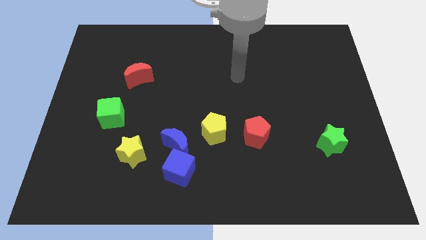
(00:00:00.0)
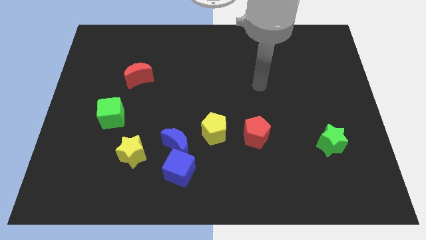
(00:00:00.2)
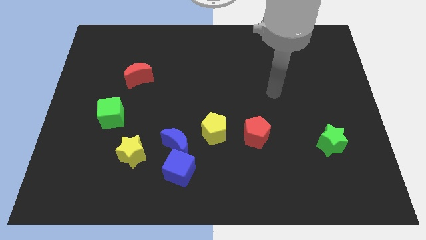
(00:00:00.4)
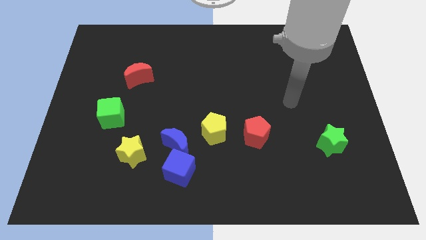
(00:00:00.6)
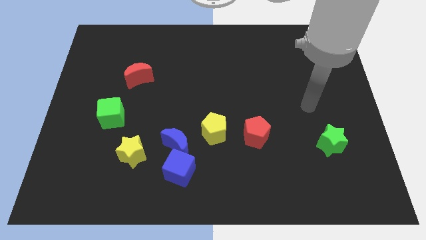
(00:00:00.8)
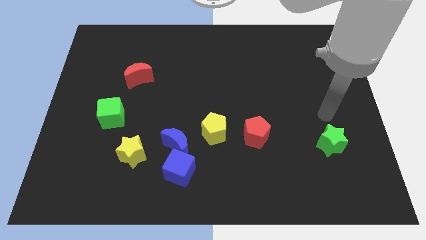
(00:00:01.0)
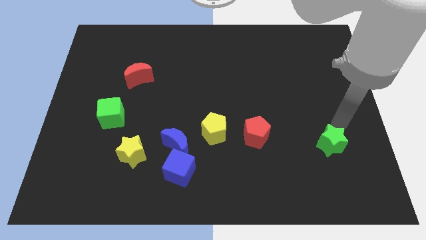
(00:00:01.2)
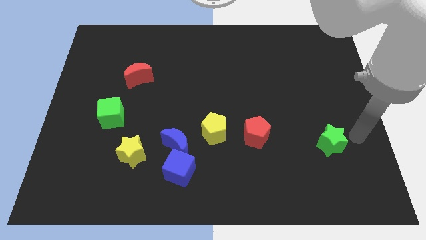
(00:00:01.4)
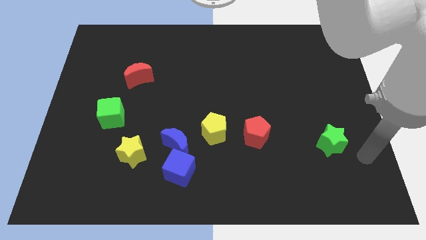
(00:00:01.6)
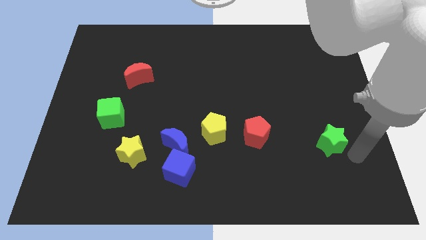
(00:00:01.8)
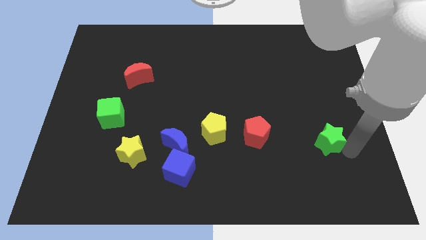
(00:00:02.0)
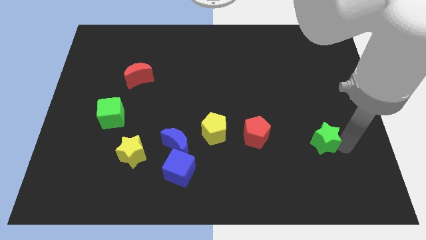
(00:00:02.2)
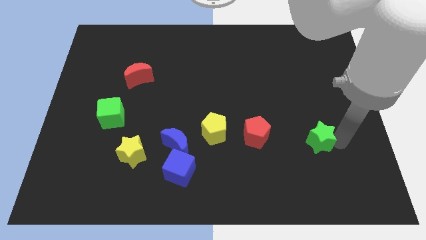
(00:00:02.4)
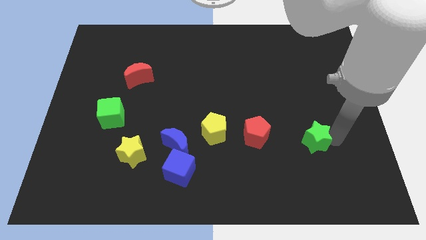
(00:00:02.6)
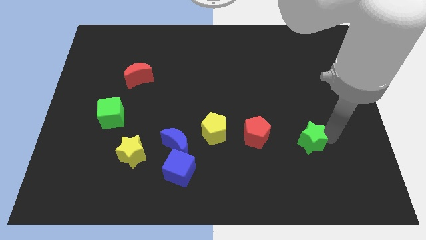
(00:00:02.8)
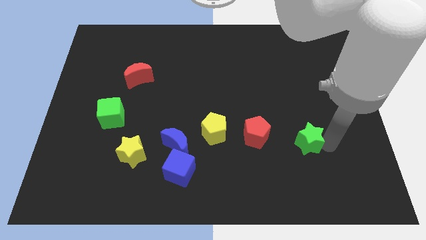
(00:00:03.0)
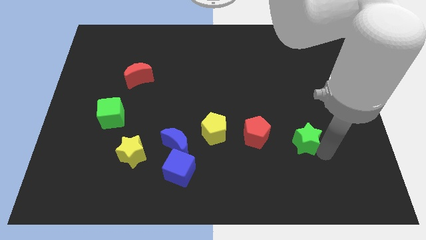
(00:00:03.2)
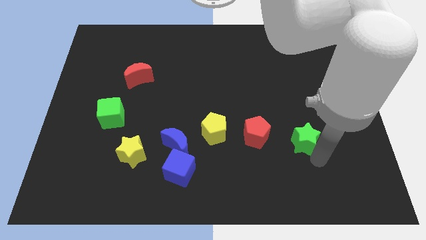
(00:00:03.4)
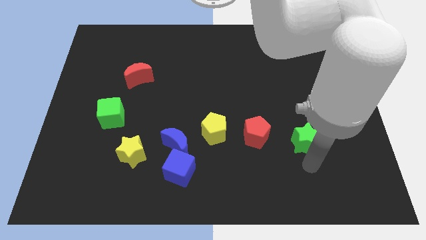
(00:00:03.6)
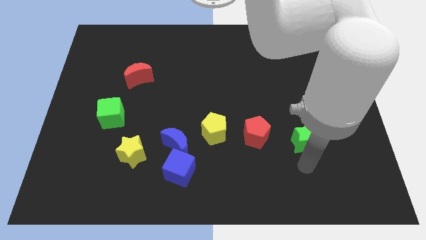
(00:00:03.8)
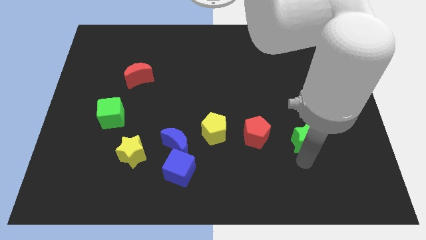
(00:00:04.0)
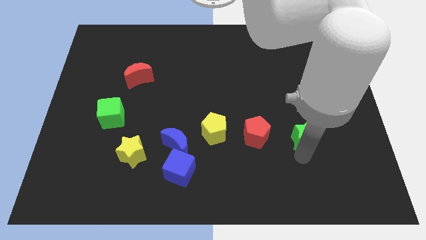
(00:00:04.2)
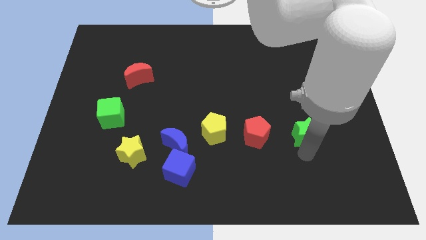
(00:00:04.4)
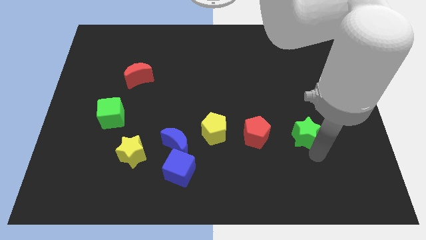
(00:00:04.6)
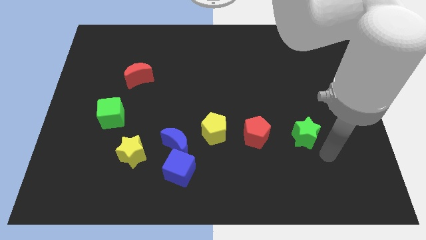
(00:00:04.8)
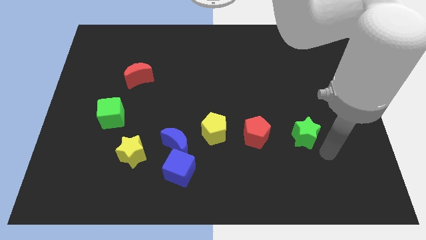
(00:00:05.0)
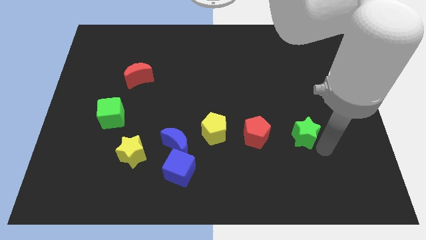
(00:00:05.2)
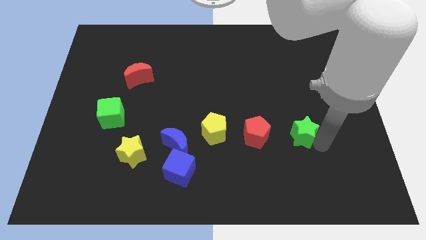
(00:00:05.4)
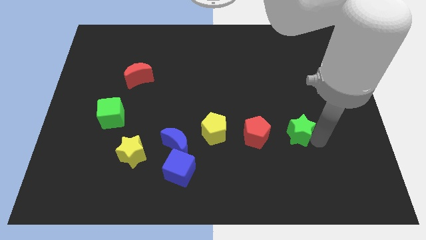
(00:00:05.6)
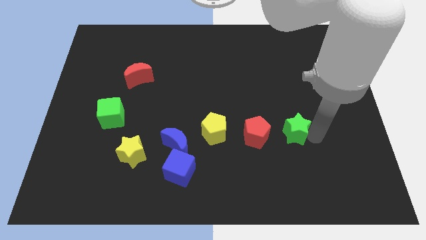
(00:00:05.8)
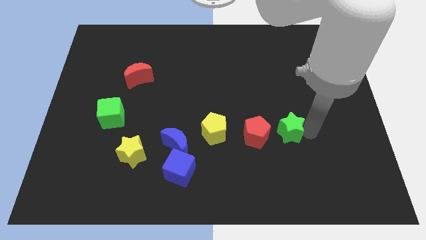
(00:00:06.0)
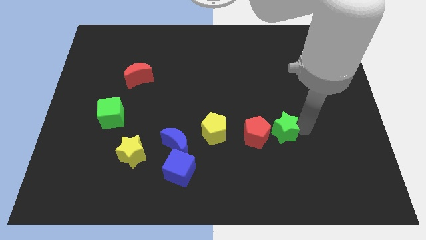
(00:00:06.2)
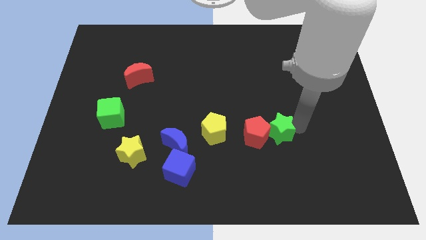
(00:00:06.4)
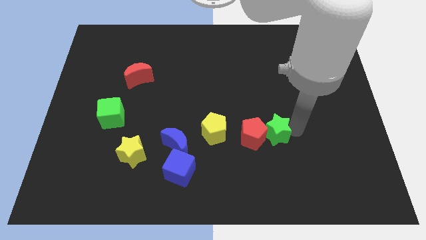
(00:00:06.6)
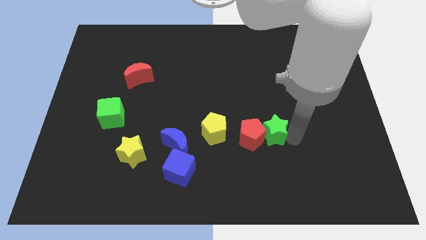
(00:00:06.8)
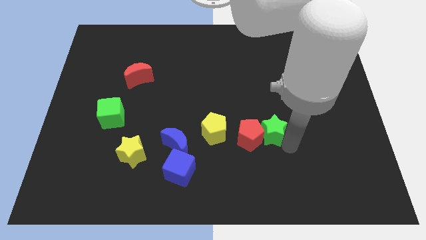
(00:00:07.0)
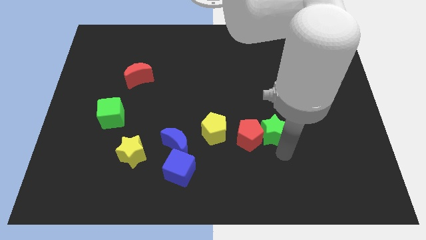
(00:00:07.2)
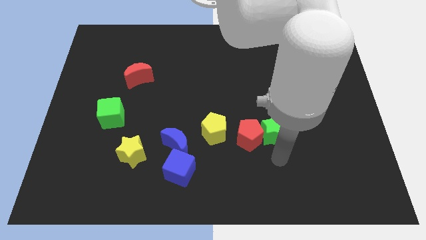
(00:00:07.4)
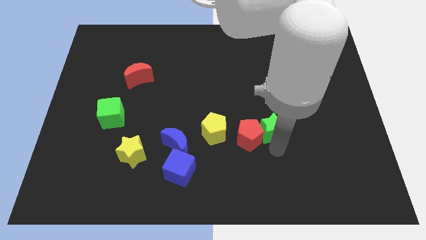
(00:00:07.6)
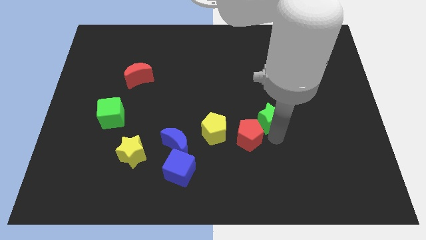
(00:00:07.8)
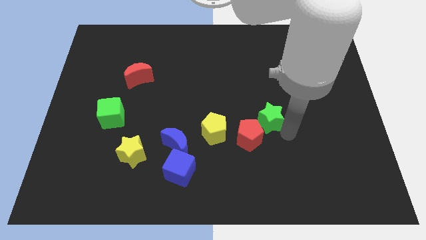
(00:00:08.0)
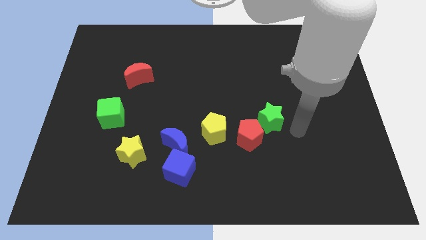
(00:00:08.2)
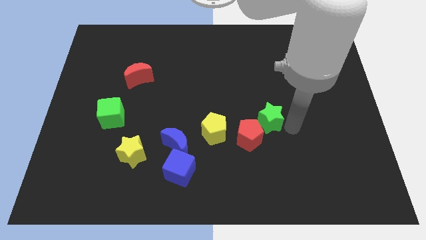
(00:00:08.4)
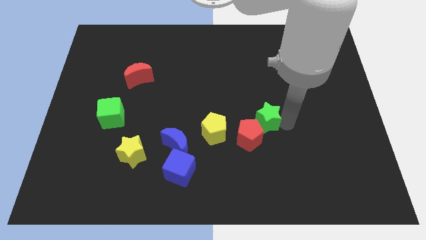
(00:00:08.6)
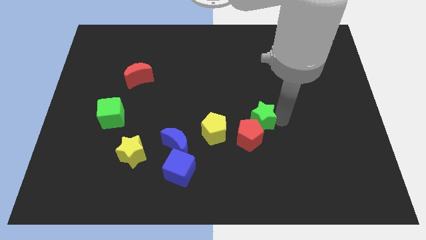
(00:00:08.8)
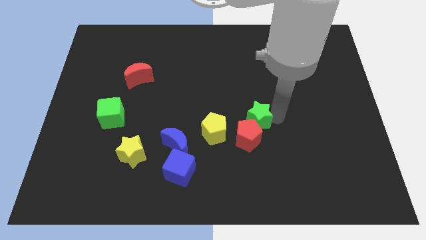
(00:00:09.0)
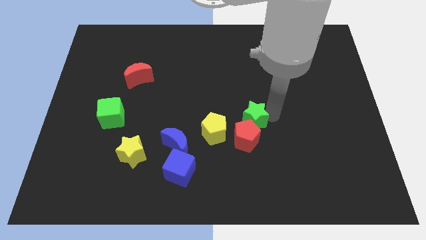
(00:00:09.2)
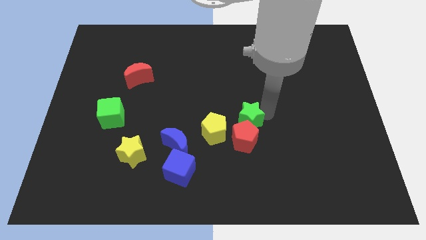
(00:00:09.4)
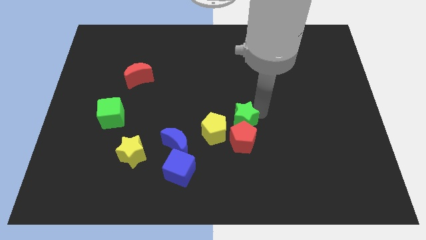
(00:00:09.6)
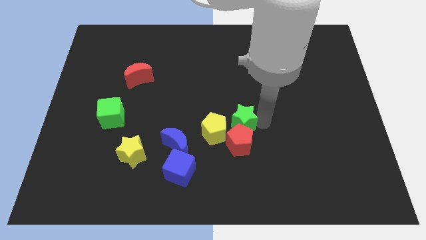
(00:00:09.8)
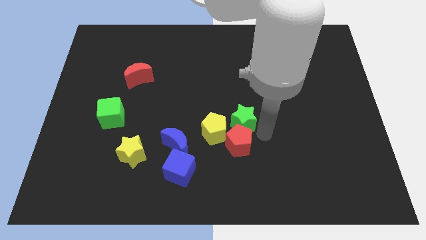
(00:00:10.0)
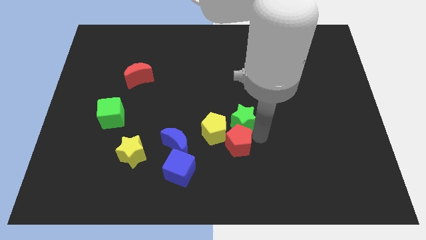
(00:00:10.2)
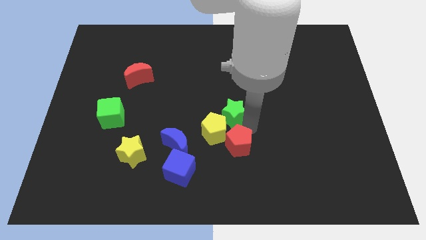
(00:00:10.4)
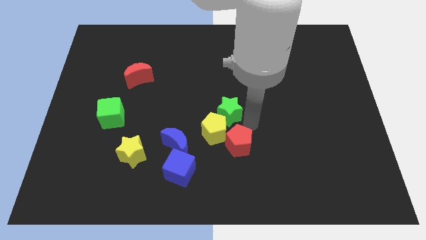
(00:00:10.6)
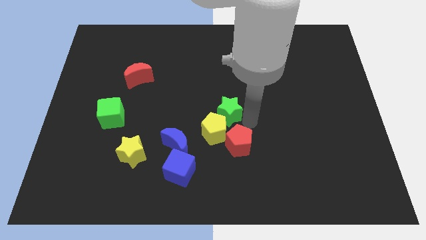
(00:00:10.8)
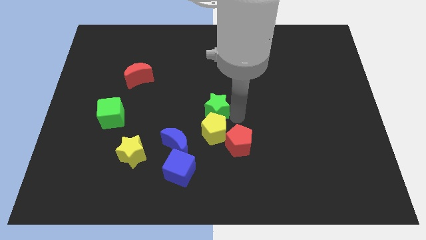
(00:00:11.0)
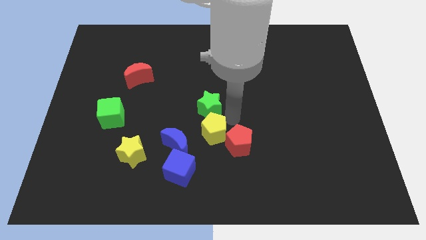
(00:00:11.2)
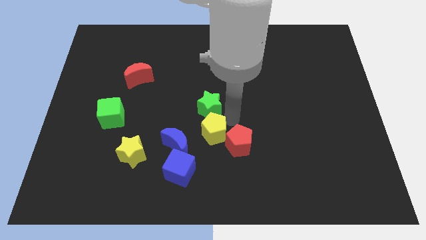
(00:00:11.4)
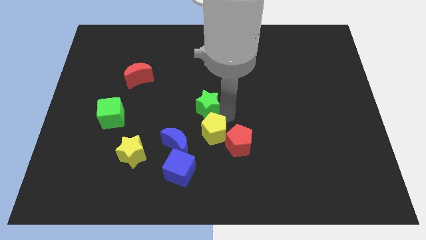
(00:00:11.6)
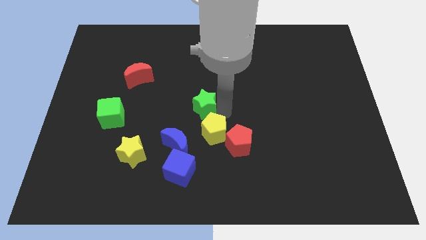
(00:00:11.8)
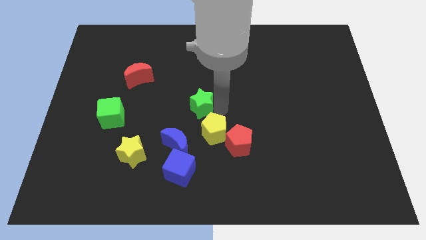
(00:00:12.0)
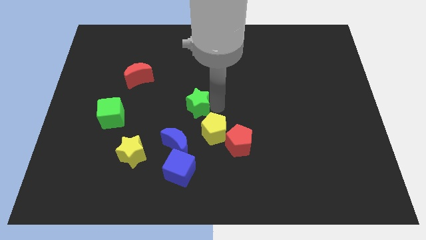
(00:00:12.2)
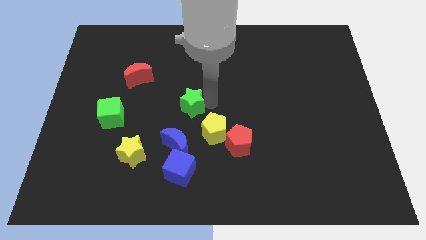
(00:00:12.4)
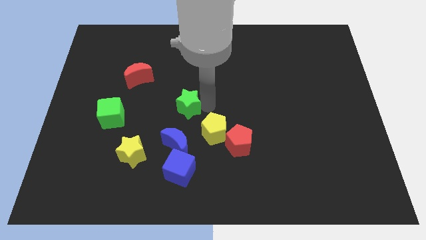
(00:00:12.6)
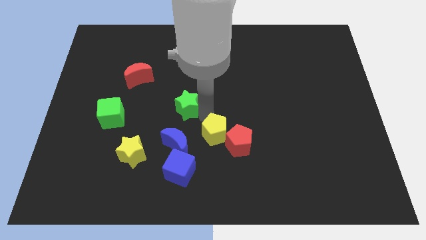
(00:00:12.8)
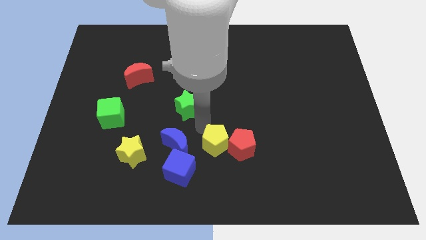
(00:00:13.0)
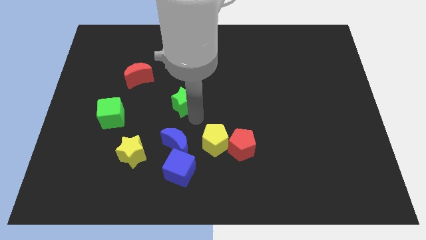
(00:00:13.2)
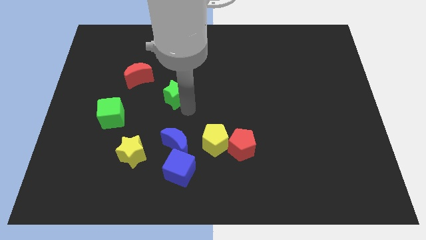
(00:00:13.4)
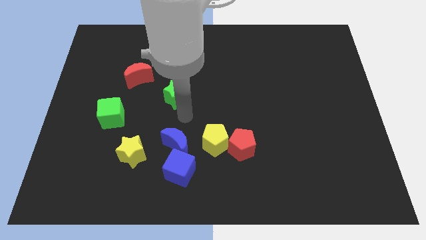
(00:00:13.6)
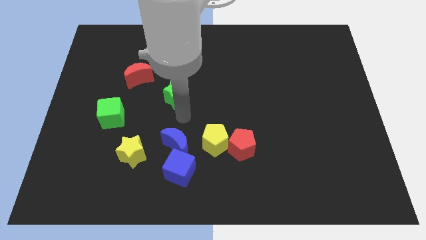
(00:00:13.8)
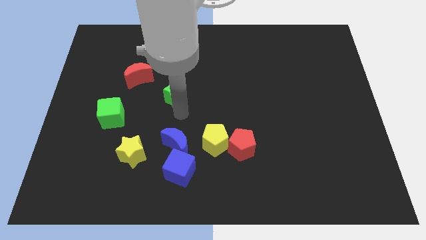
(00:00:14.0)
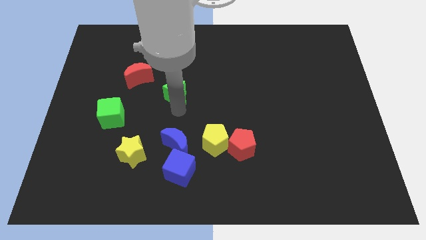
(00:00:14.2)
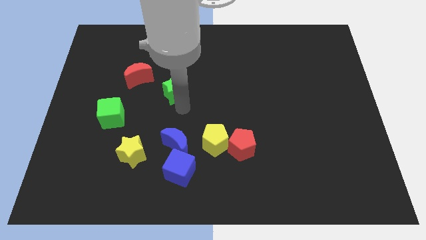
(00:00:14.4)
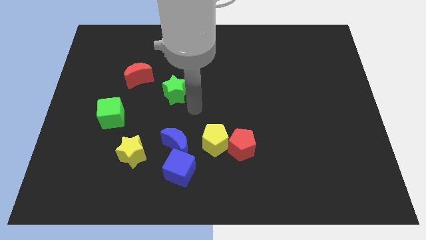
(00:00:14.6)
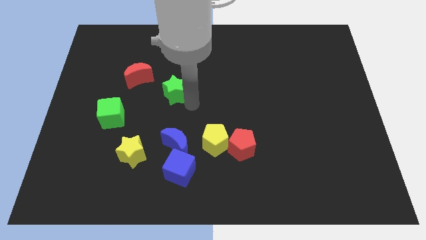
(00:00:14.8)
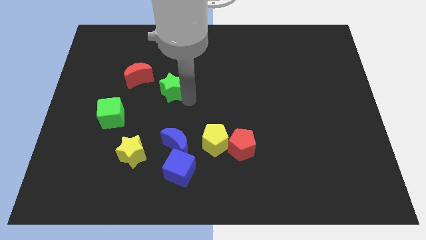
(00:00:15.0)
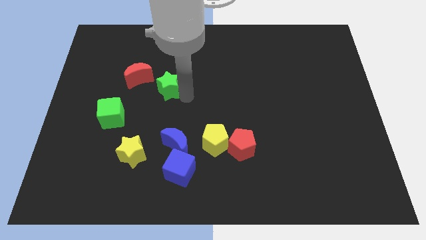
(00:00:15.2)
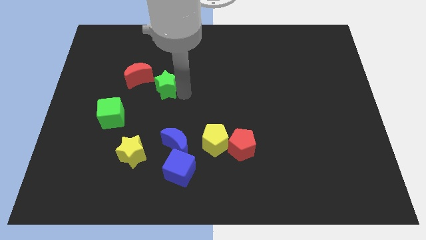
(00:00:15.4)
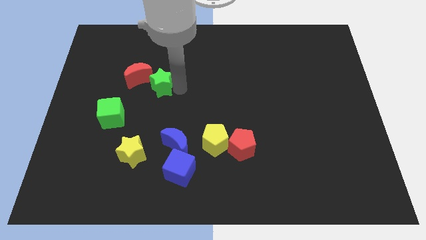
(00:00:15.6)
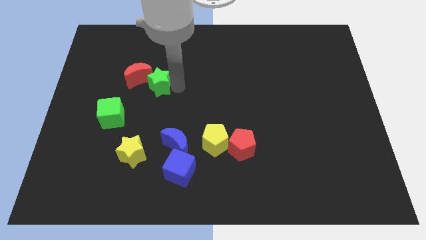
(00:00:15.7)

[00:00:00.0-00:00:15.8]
slide the green star to the red moon
